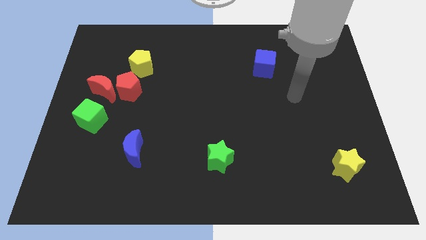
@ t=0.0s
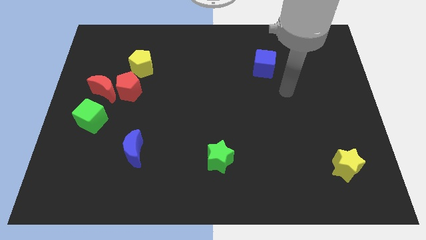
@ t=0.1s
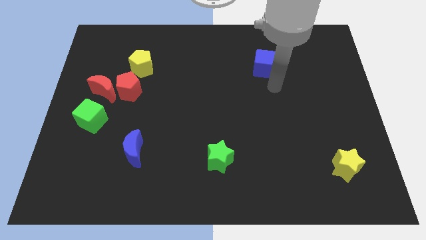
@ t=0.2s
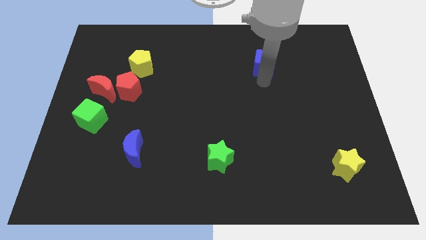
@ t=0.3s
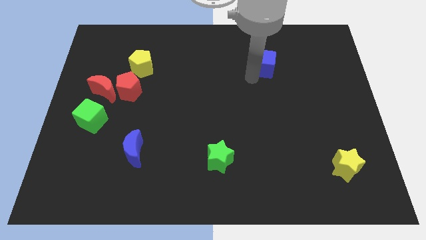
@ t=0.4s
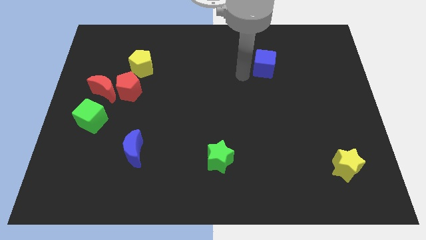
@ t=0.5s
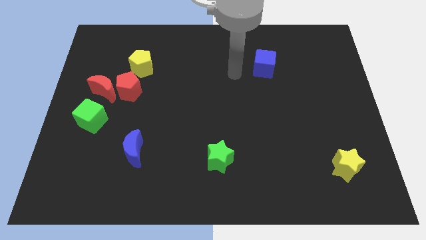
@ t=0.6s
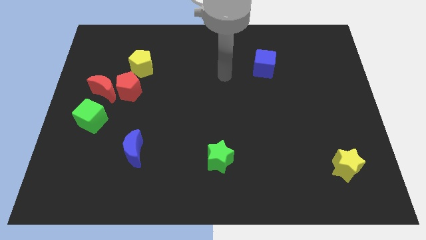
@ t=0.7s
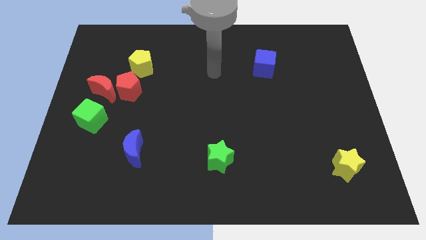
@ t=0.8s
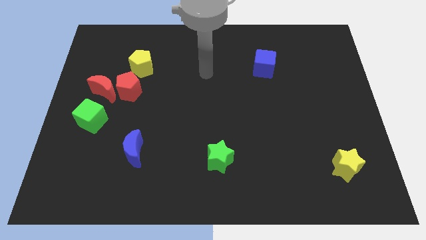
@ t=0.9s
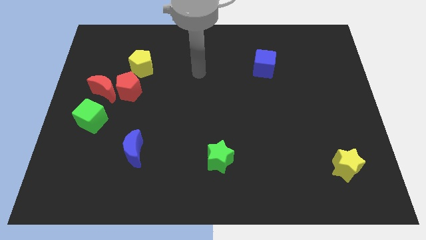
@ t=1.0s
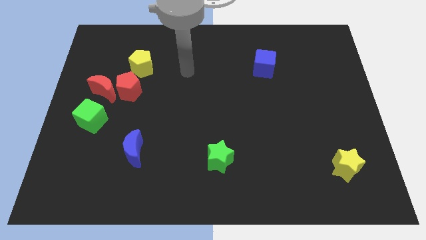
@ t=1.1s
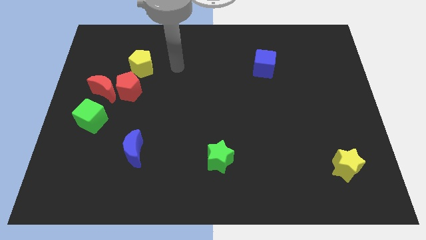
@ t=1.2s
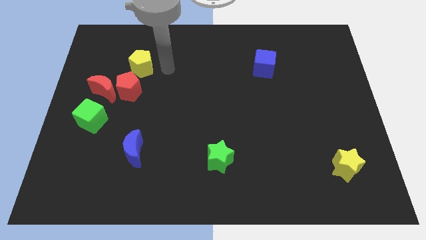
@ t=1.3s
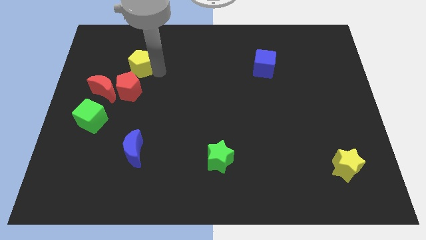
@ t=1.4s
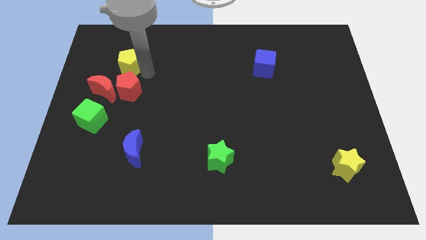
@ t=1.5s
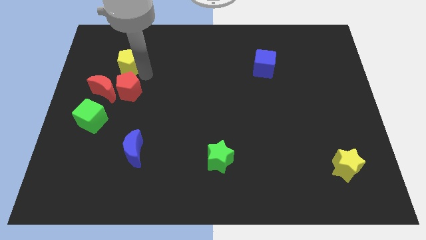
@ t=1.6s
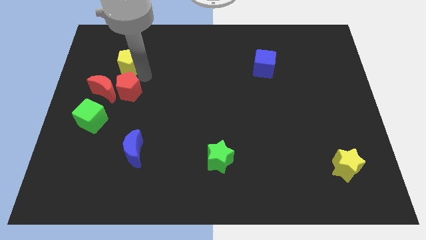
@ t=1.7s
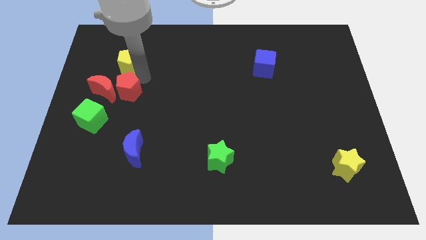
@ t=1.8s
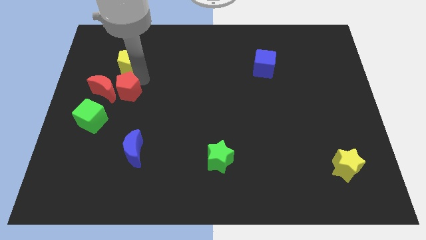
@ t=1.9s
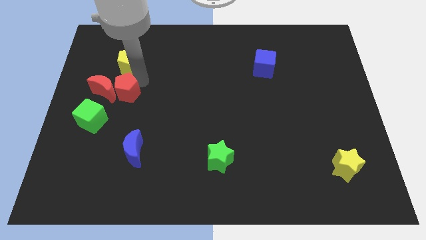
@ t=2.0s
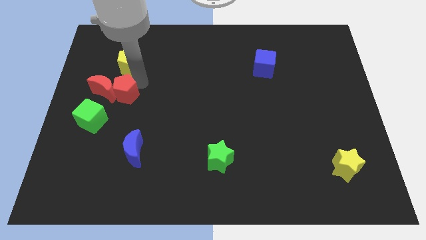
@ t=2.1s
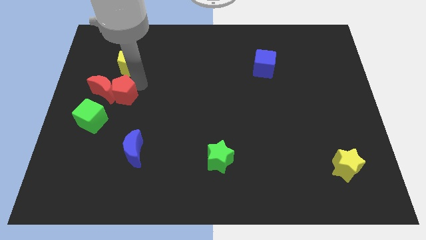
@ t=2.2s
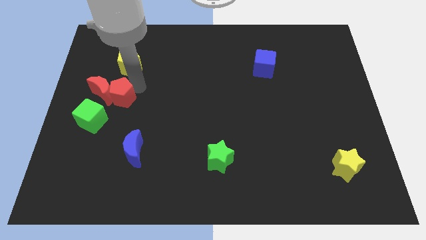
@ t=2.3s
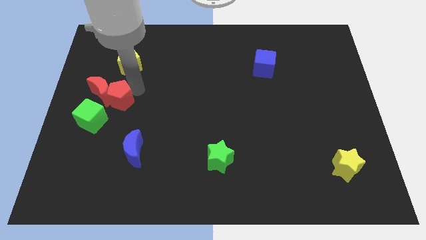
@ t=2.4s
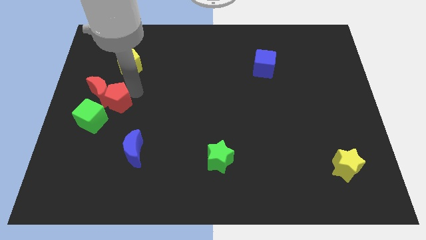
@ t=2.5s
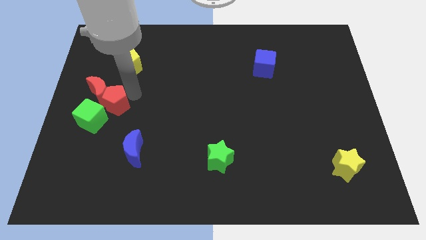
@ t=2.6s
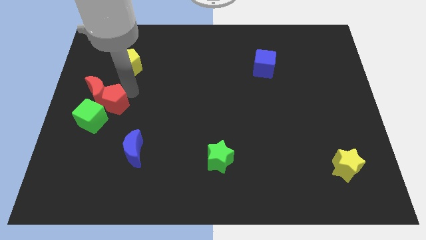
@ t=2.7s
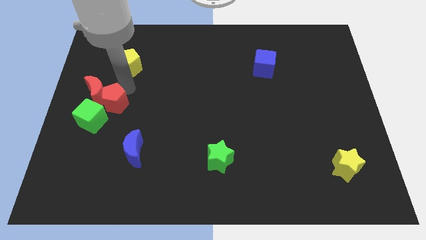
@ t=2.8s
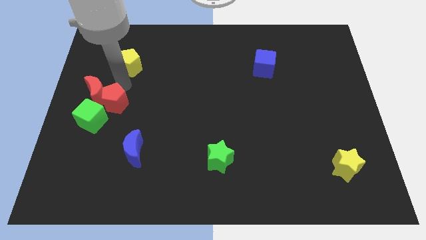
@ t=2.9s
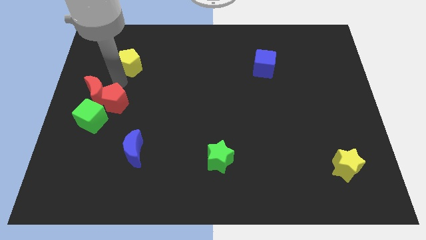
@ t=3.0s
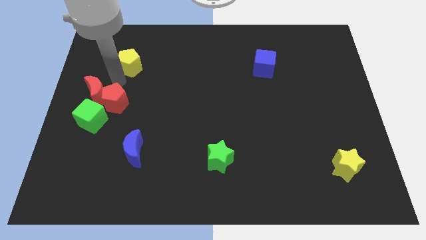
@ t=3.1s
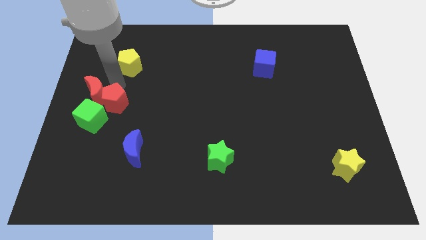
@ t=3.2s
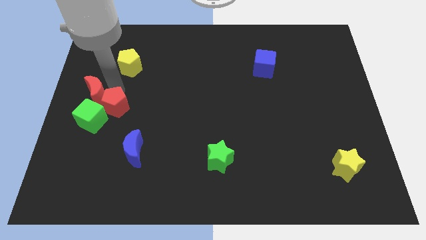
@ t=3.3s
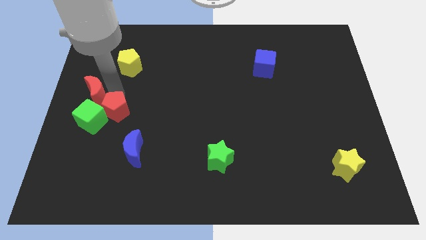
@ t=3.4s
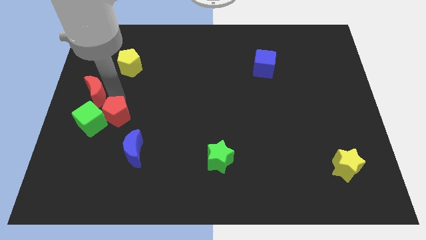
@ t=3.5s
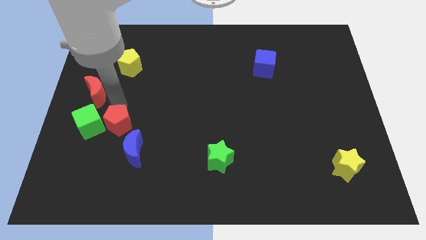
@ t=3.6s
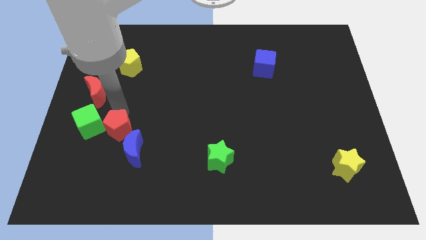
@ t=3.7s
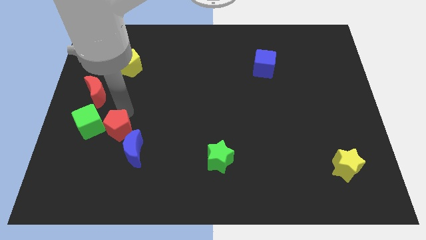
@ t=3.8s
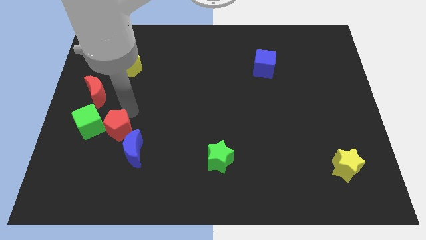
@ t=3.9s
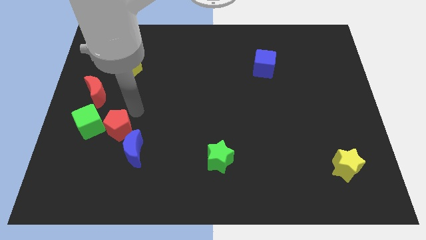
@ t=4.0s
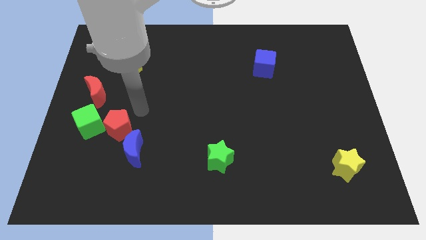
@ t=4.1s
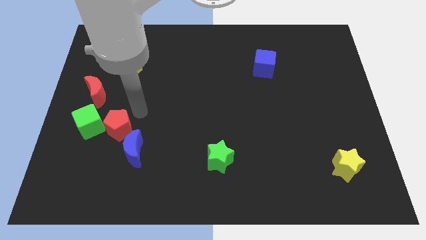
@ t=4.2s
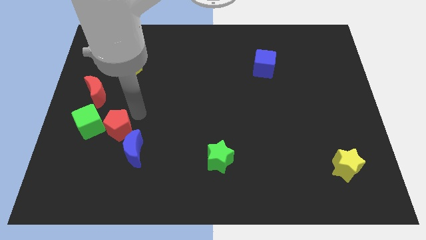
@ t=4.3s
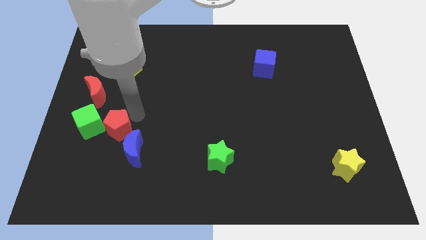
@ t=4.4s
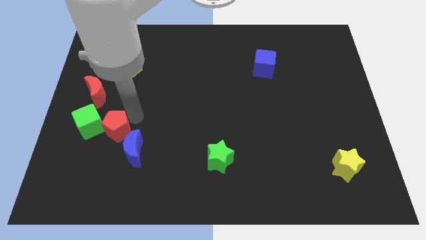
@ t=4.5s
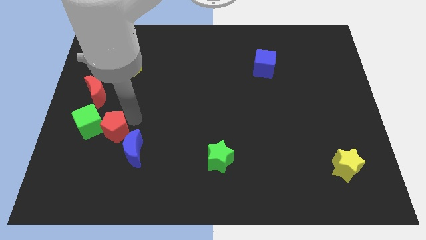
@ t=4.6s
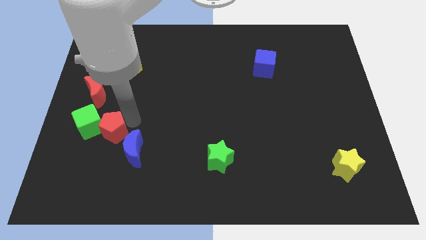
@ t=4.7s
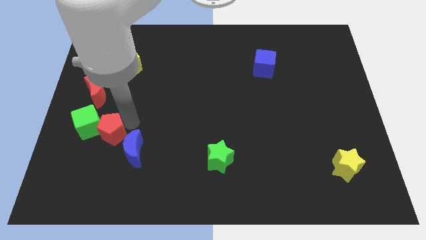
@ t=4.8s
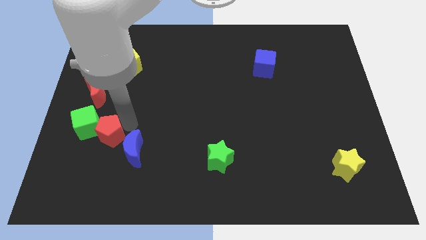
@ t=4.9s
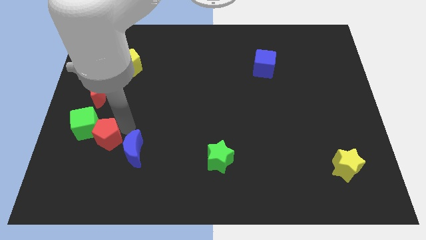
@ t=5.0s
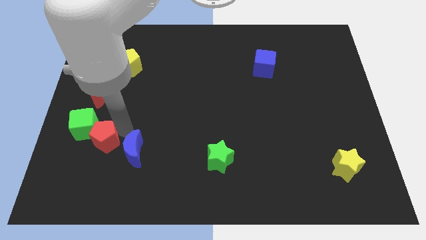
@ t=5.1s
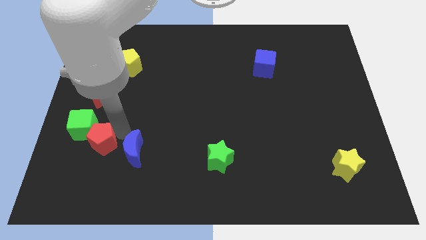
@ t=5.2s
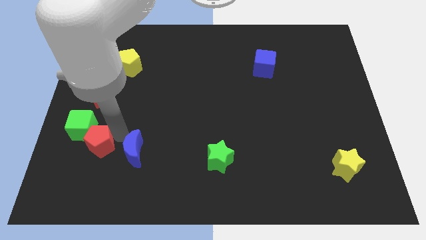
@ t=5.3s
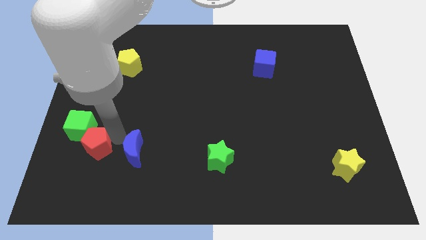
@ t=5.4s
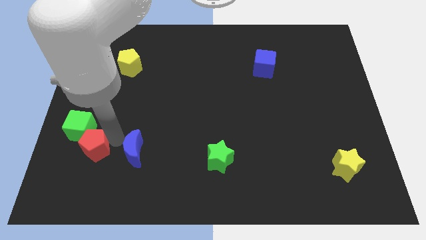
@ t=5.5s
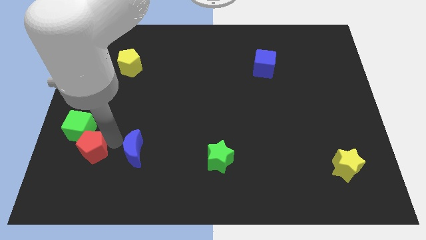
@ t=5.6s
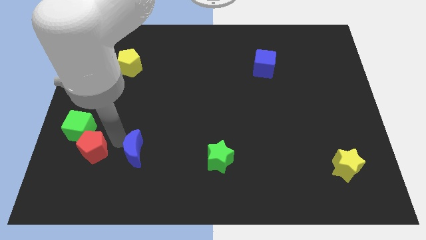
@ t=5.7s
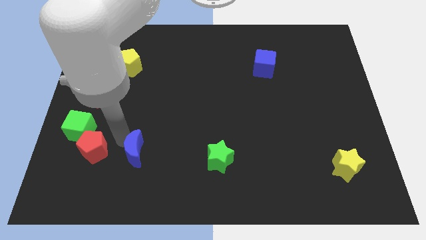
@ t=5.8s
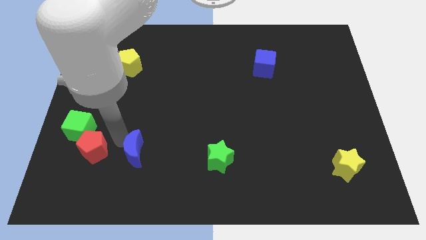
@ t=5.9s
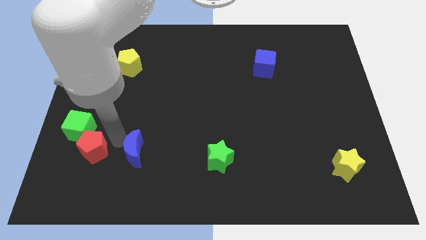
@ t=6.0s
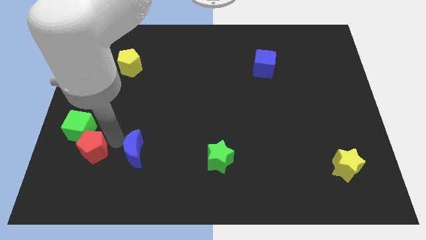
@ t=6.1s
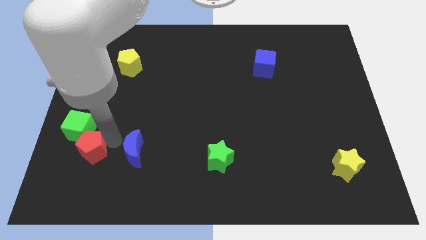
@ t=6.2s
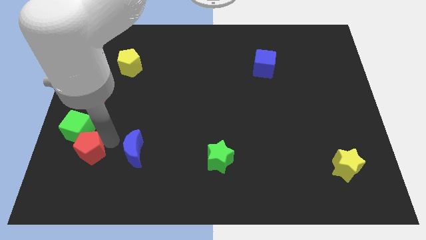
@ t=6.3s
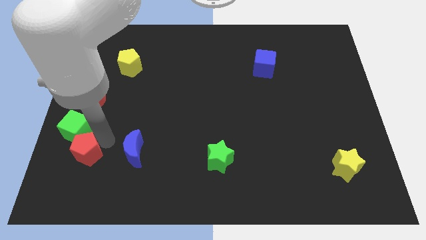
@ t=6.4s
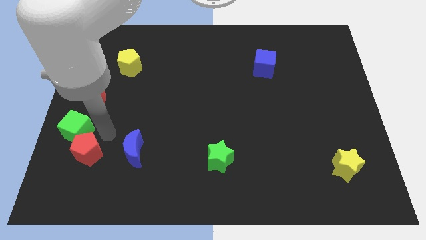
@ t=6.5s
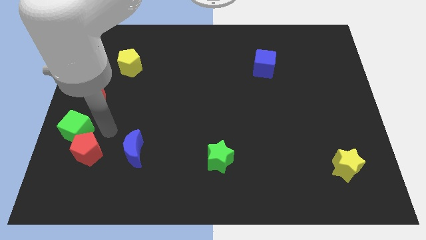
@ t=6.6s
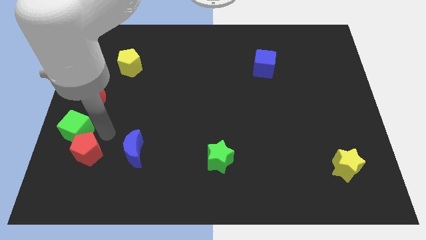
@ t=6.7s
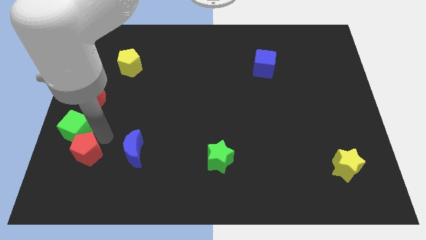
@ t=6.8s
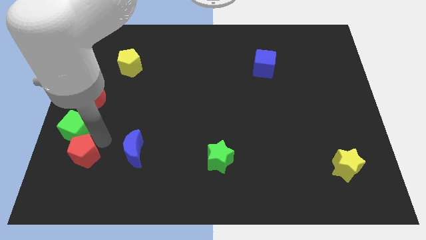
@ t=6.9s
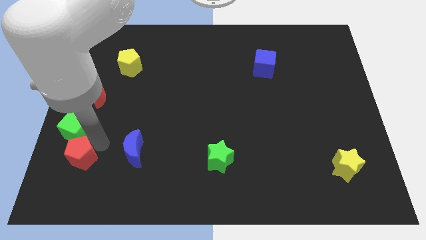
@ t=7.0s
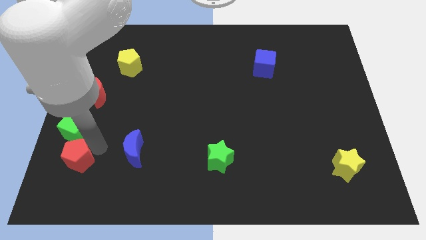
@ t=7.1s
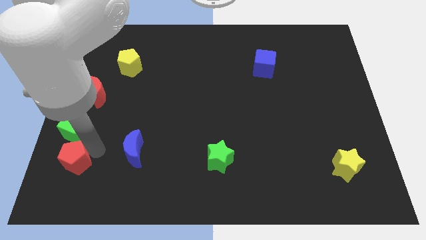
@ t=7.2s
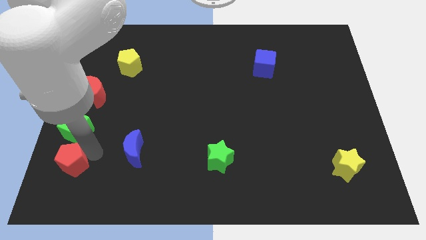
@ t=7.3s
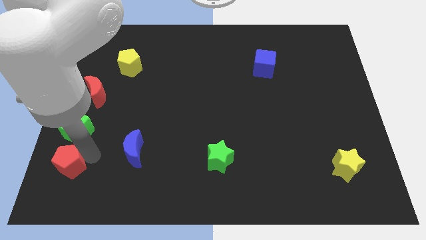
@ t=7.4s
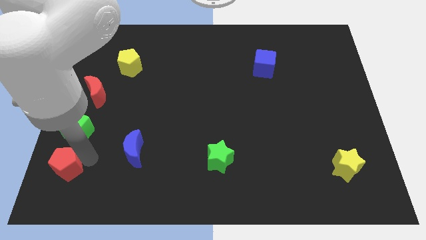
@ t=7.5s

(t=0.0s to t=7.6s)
put the red pentagon to the bottom left of the board
